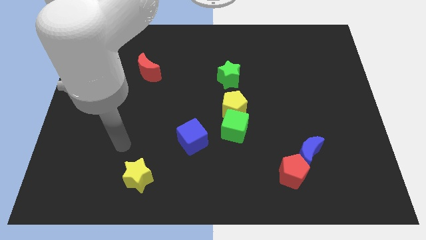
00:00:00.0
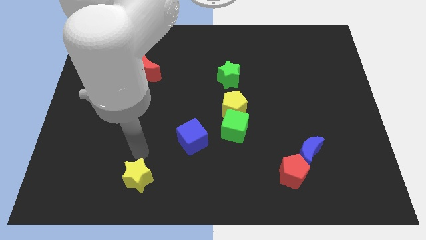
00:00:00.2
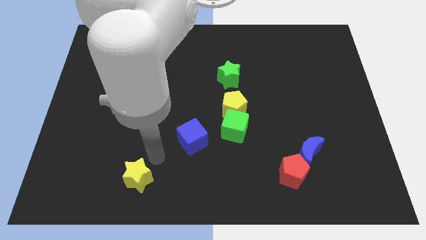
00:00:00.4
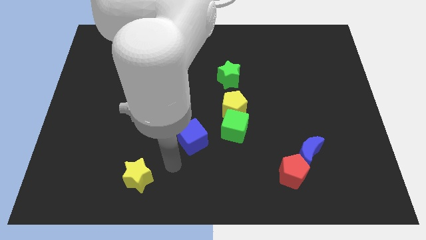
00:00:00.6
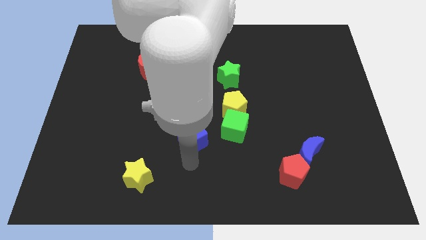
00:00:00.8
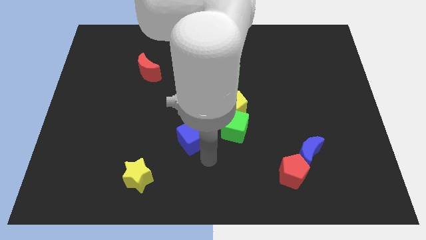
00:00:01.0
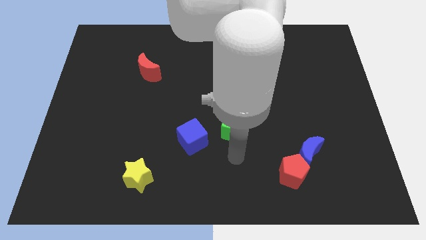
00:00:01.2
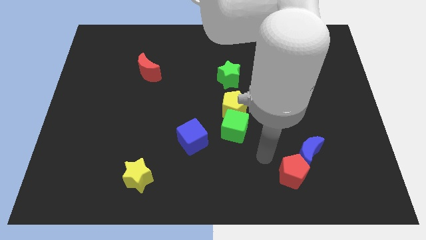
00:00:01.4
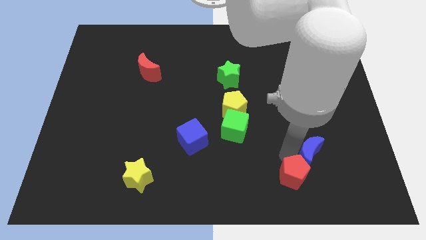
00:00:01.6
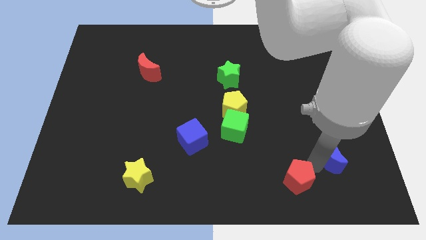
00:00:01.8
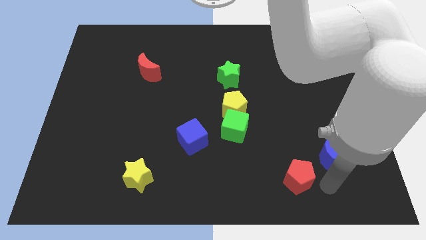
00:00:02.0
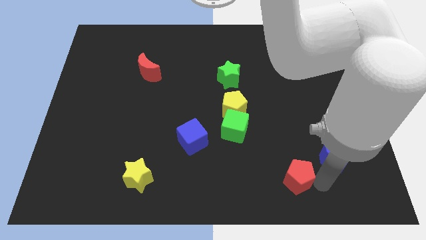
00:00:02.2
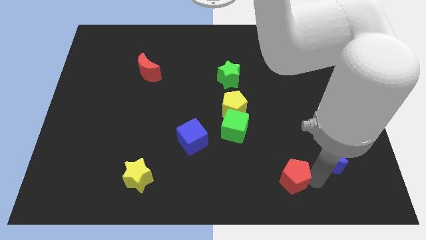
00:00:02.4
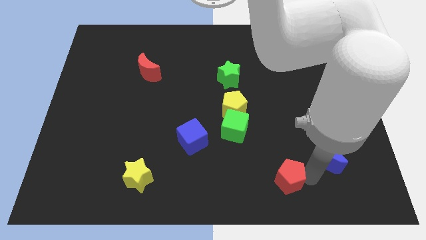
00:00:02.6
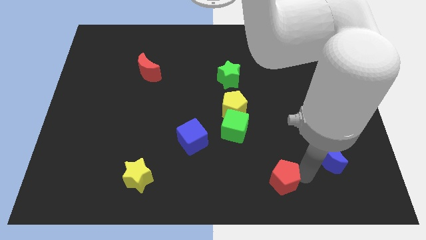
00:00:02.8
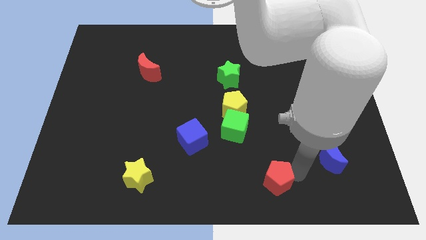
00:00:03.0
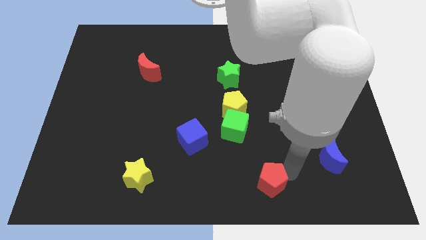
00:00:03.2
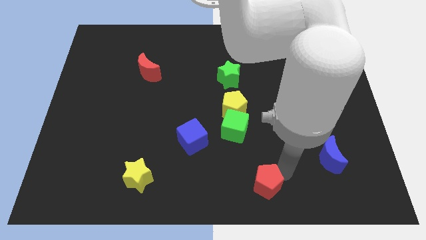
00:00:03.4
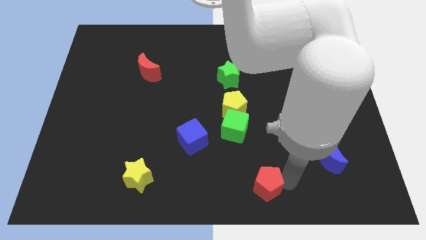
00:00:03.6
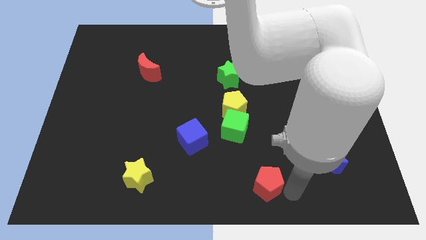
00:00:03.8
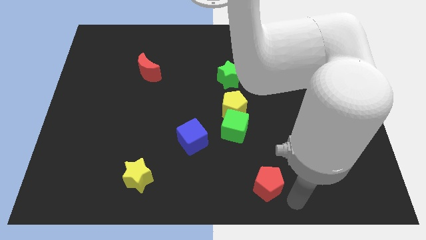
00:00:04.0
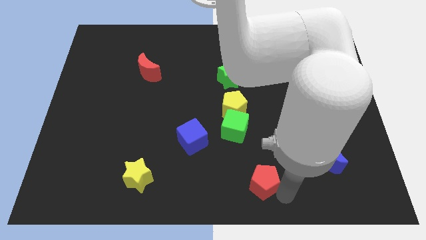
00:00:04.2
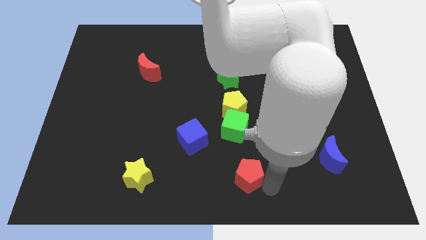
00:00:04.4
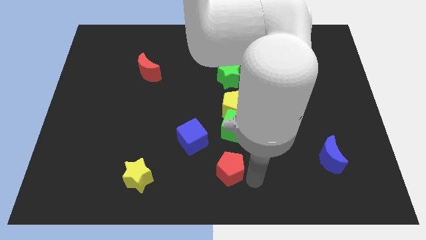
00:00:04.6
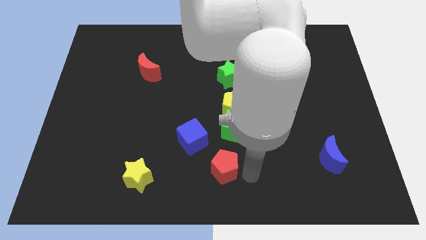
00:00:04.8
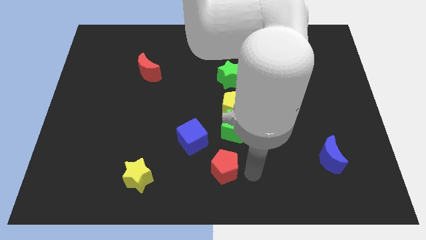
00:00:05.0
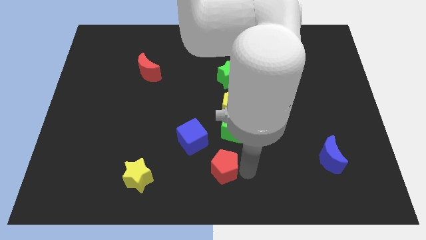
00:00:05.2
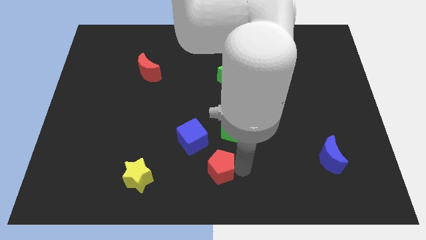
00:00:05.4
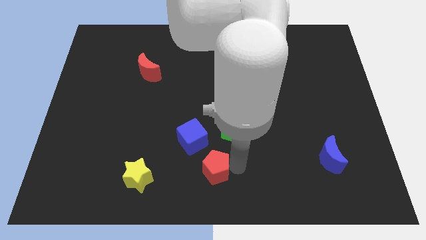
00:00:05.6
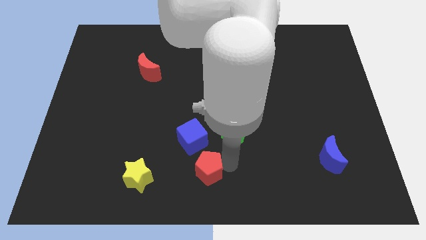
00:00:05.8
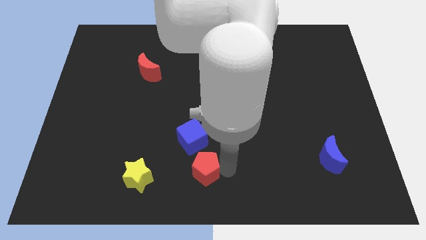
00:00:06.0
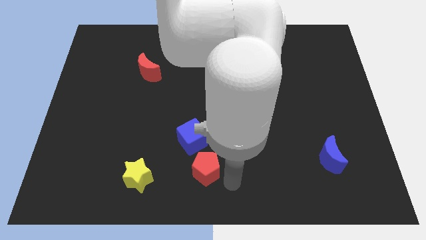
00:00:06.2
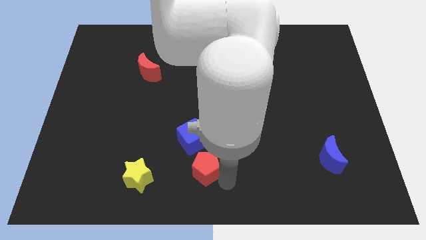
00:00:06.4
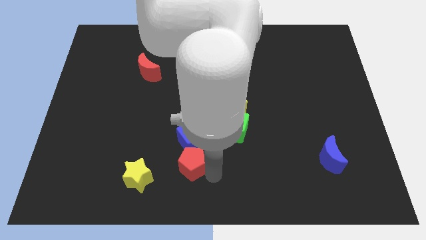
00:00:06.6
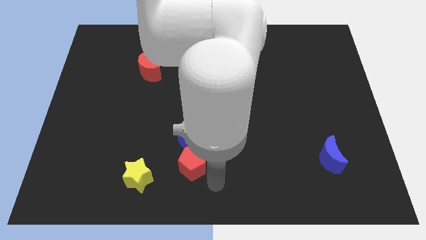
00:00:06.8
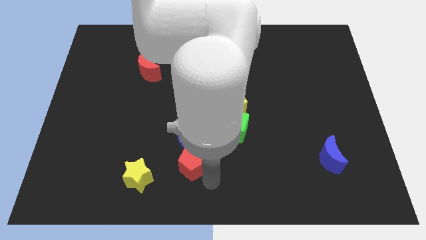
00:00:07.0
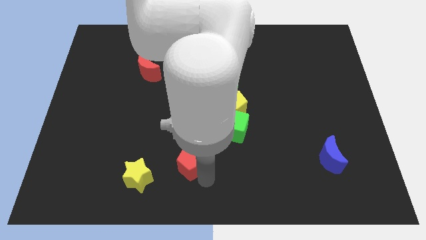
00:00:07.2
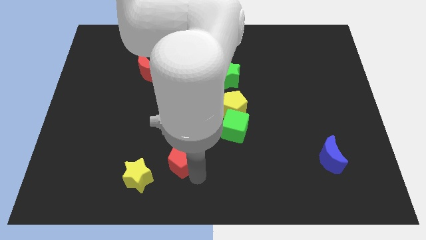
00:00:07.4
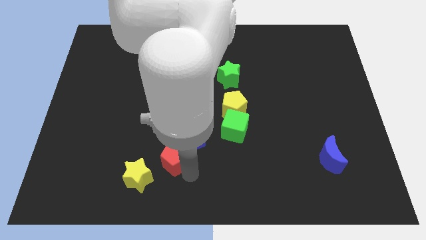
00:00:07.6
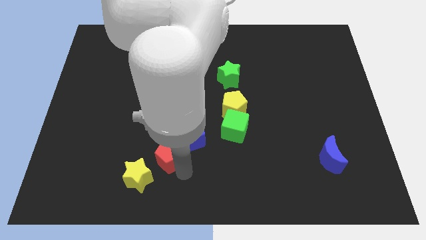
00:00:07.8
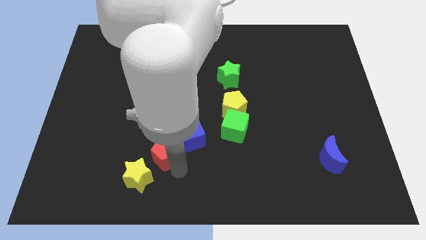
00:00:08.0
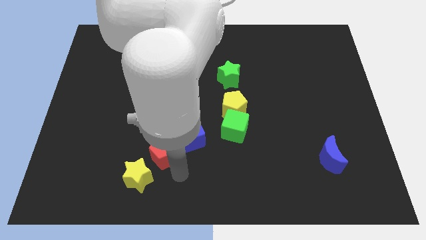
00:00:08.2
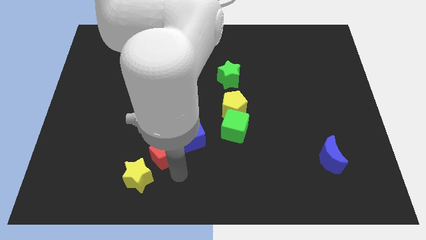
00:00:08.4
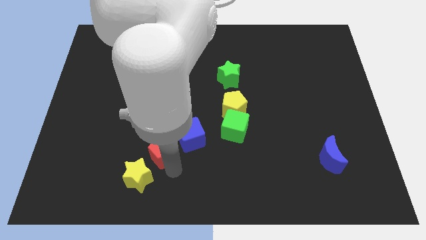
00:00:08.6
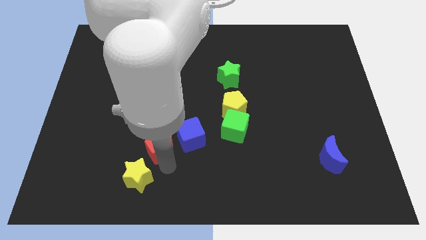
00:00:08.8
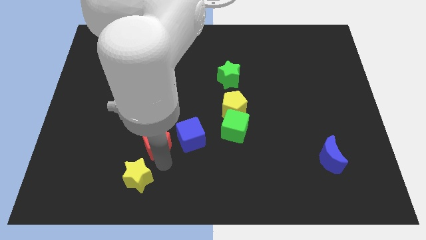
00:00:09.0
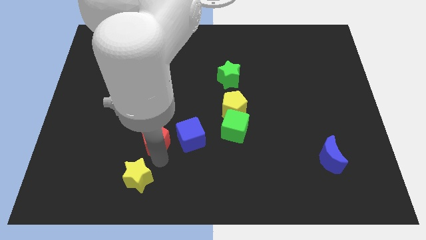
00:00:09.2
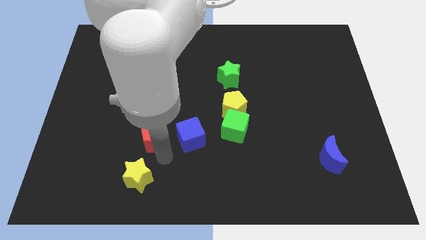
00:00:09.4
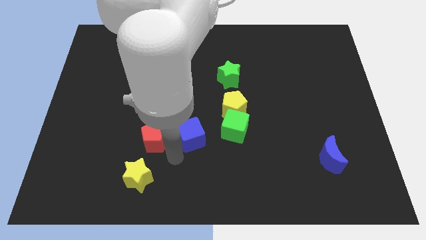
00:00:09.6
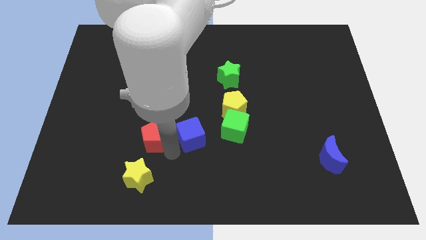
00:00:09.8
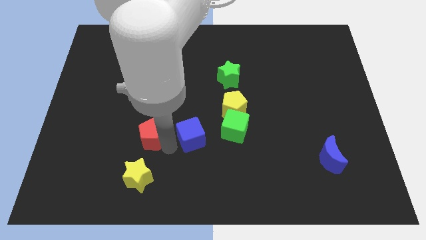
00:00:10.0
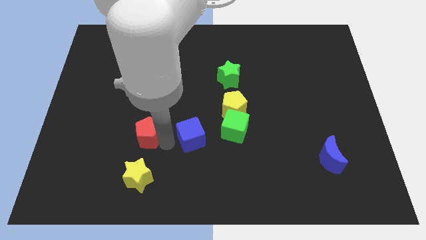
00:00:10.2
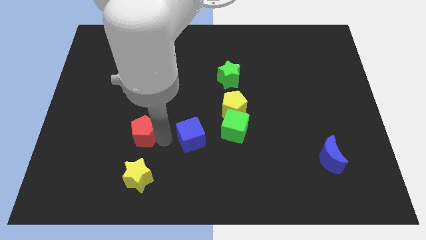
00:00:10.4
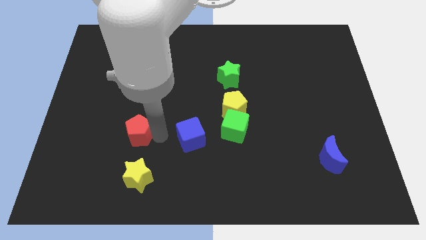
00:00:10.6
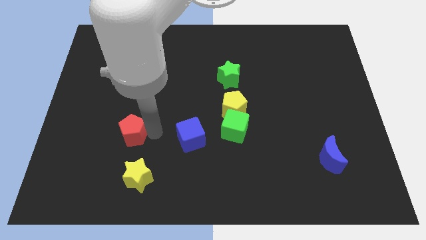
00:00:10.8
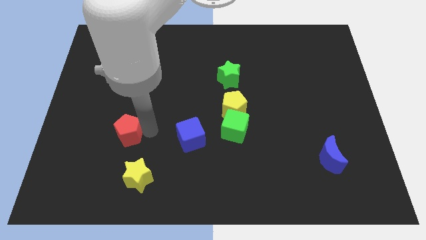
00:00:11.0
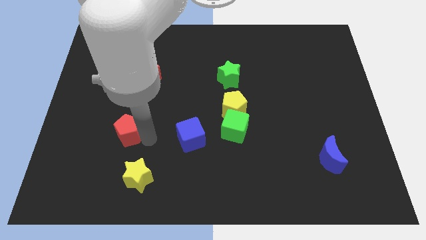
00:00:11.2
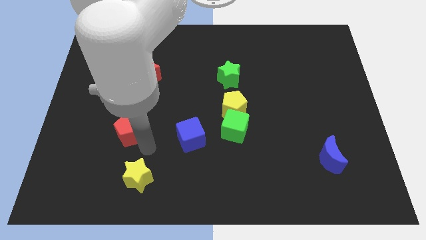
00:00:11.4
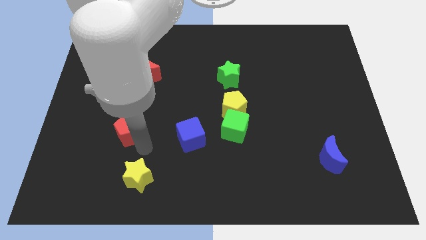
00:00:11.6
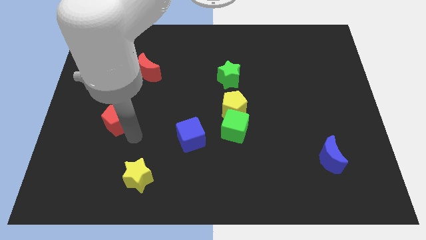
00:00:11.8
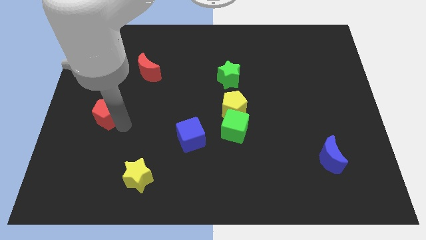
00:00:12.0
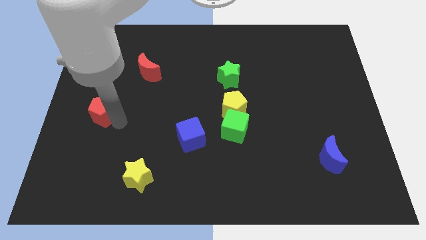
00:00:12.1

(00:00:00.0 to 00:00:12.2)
push the red pentagon to the center left
